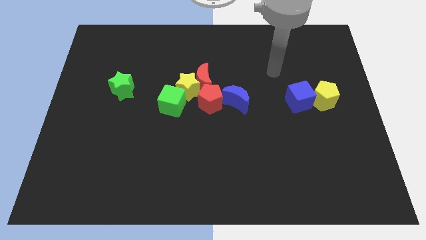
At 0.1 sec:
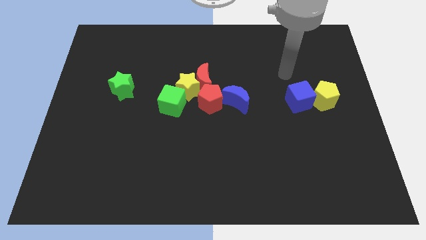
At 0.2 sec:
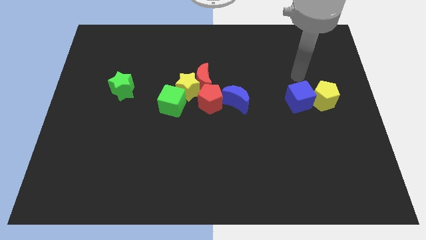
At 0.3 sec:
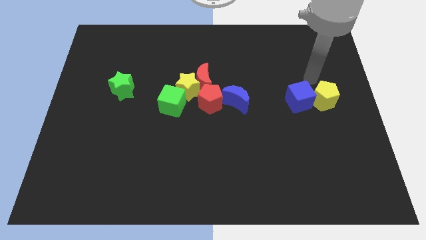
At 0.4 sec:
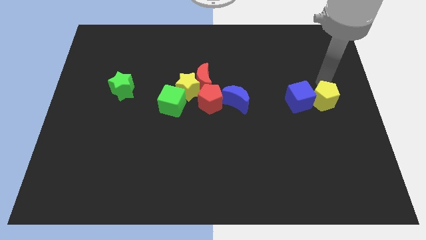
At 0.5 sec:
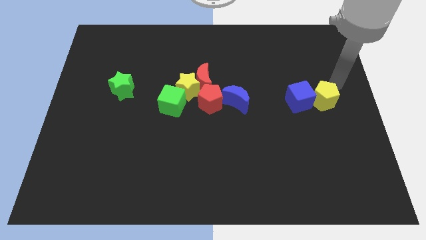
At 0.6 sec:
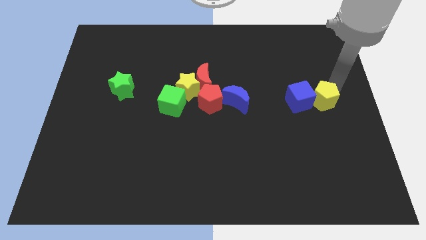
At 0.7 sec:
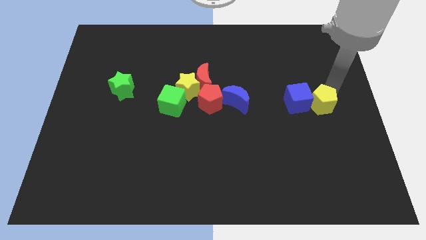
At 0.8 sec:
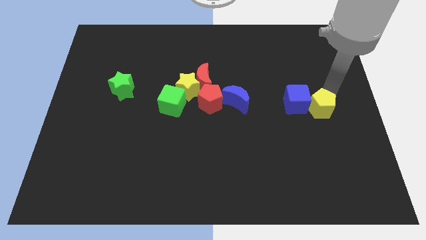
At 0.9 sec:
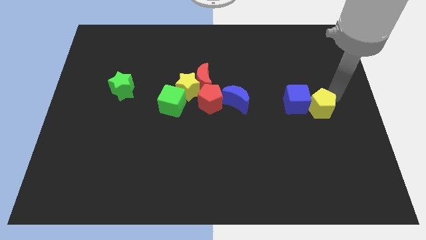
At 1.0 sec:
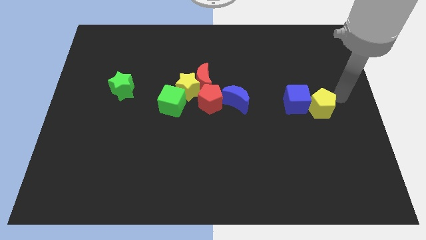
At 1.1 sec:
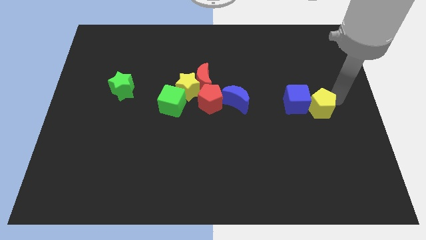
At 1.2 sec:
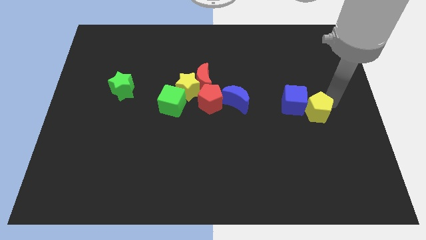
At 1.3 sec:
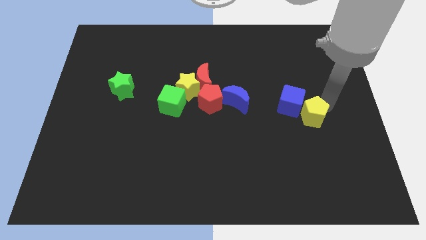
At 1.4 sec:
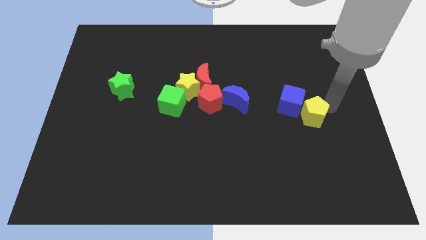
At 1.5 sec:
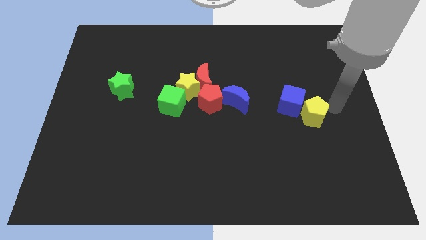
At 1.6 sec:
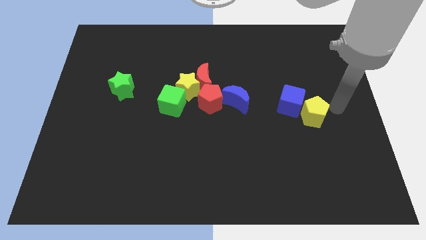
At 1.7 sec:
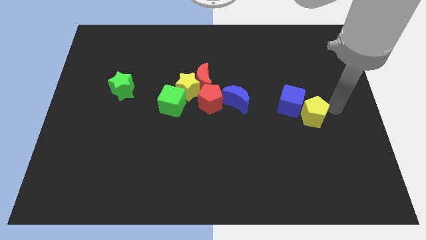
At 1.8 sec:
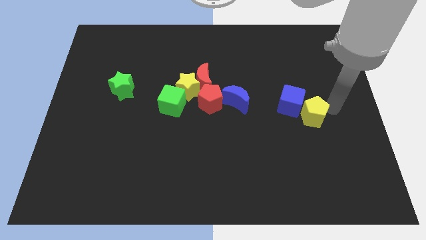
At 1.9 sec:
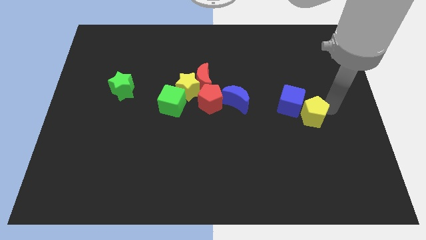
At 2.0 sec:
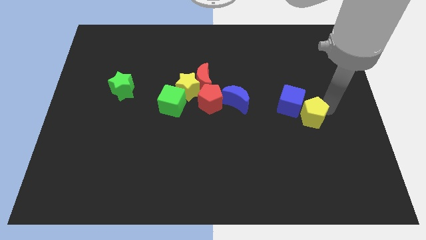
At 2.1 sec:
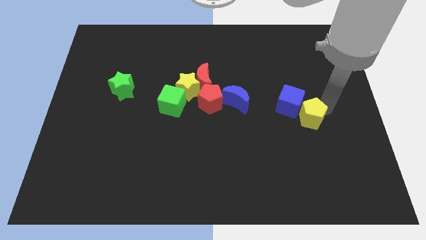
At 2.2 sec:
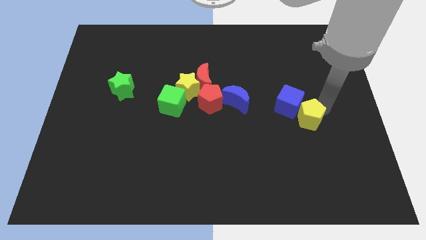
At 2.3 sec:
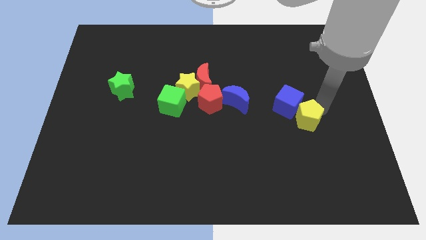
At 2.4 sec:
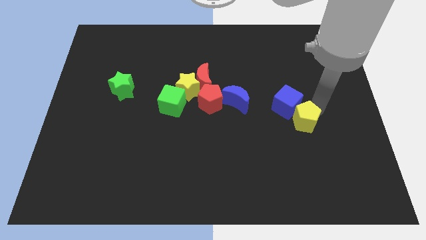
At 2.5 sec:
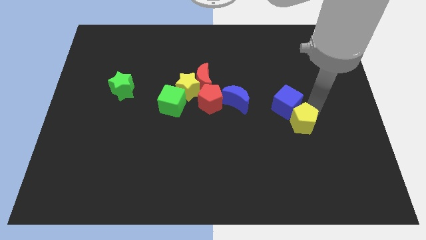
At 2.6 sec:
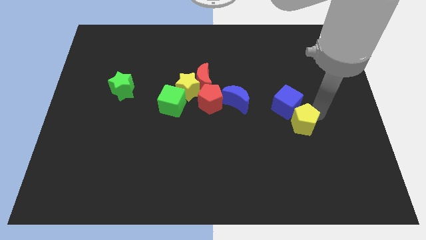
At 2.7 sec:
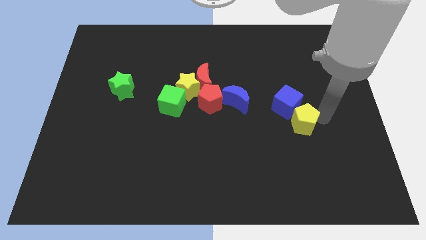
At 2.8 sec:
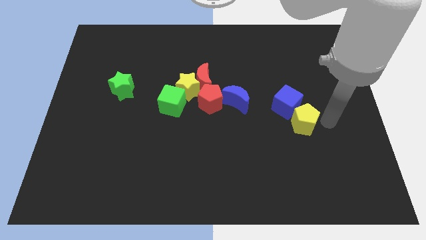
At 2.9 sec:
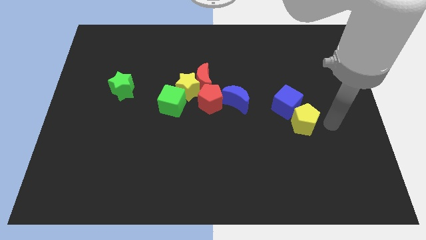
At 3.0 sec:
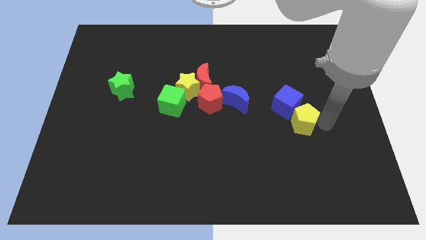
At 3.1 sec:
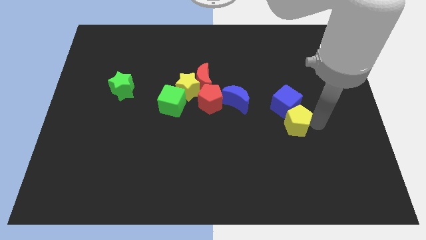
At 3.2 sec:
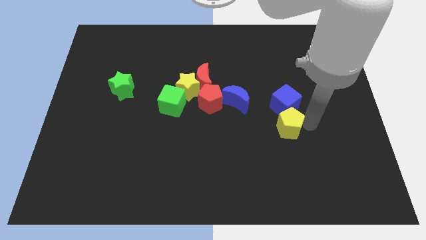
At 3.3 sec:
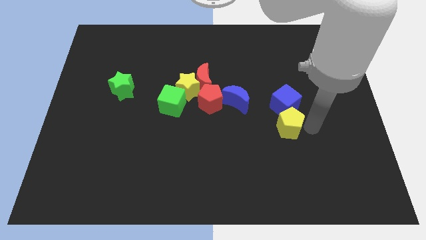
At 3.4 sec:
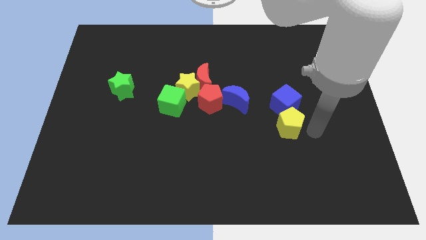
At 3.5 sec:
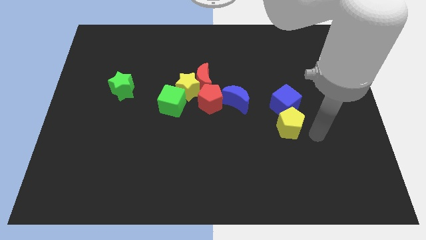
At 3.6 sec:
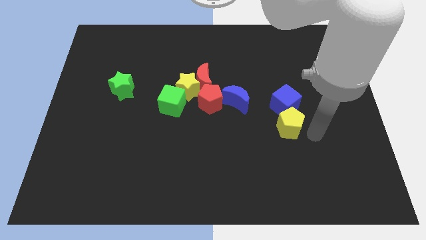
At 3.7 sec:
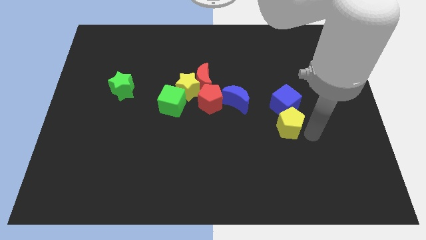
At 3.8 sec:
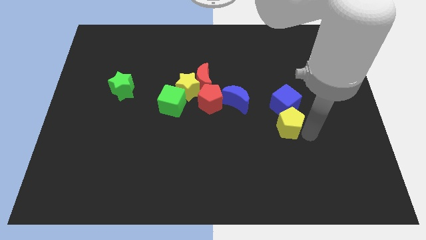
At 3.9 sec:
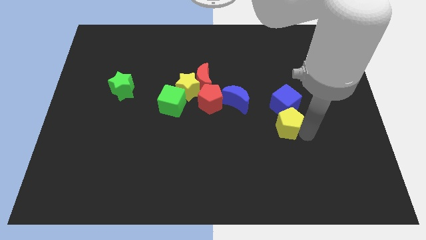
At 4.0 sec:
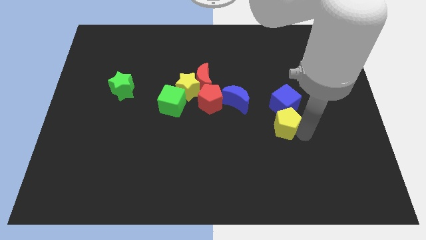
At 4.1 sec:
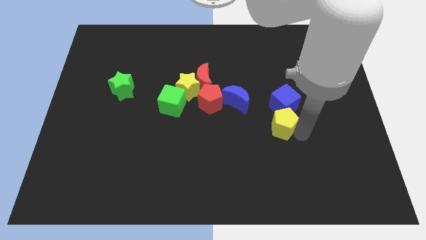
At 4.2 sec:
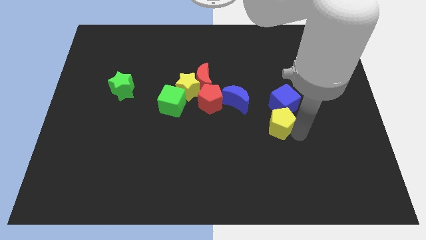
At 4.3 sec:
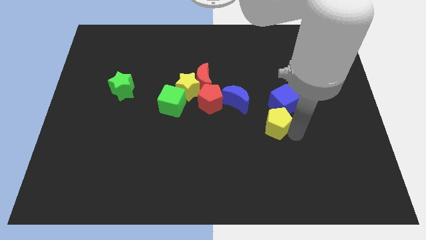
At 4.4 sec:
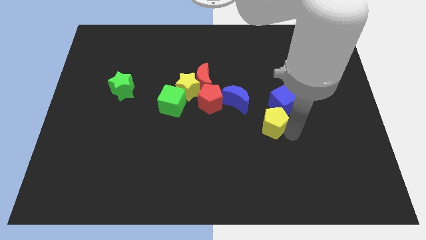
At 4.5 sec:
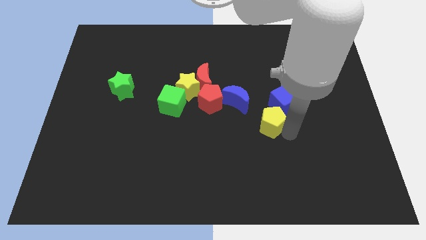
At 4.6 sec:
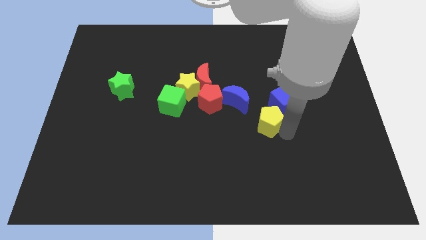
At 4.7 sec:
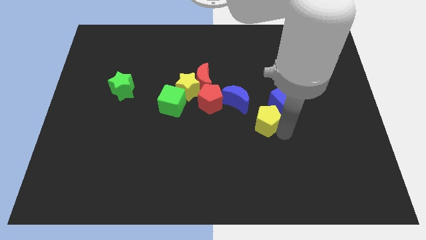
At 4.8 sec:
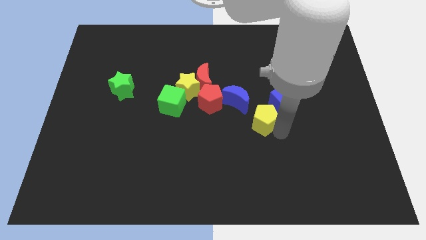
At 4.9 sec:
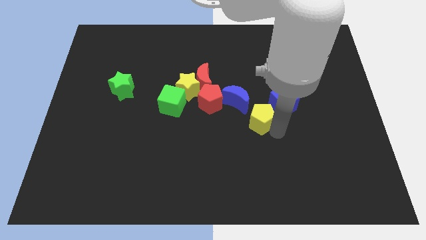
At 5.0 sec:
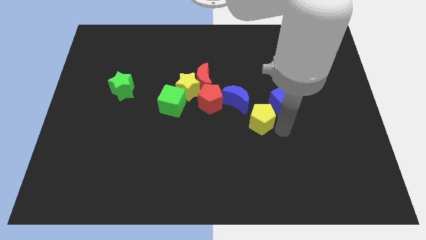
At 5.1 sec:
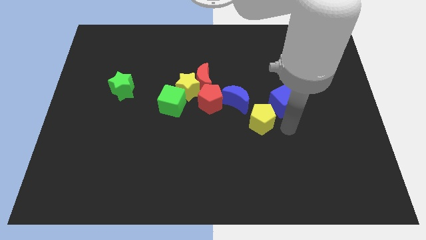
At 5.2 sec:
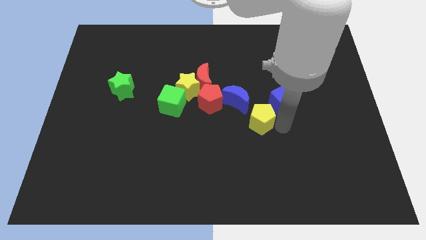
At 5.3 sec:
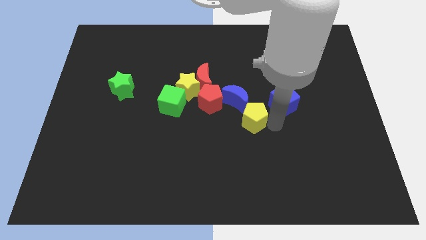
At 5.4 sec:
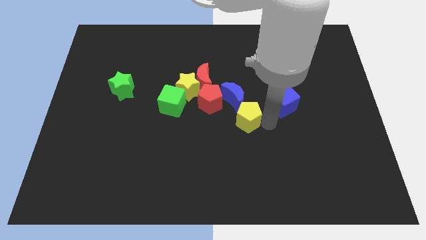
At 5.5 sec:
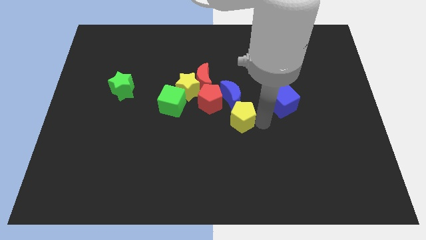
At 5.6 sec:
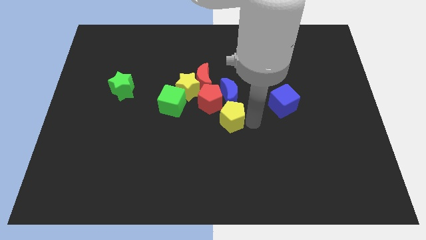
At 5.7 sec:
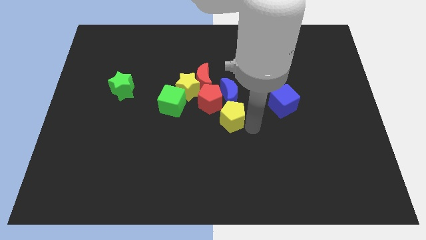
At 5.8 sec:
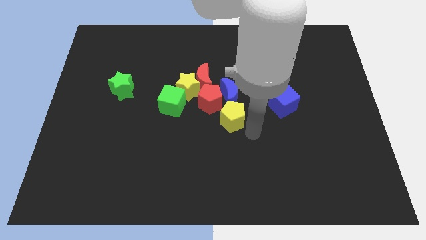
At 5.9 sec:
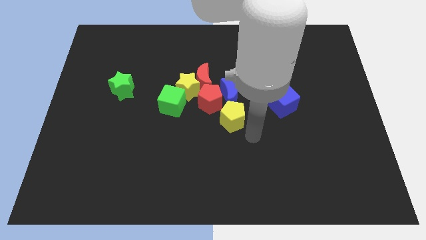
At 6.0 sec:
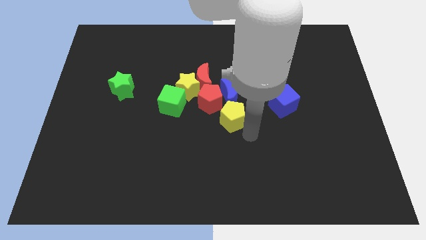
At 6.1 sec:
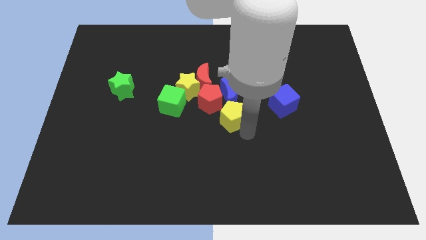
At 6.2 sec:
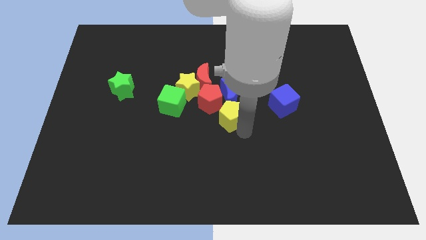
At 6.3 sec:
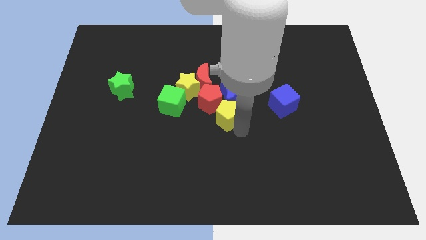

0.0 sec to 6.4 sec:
push the yellow pentagon towards the red pentagon

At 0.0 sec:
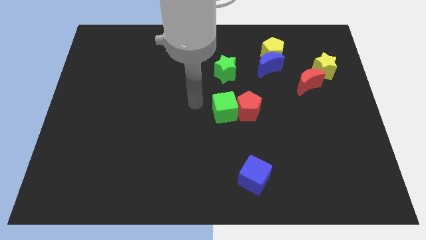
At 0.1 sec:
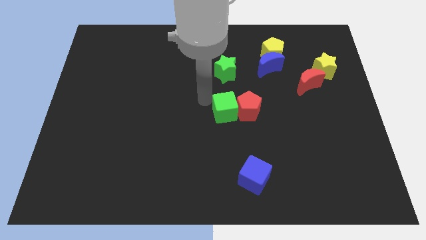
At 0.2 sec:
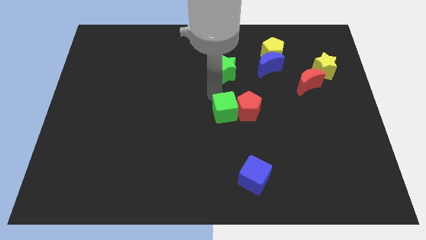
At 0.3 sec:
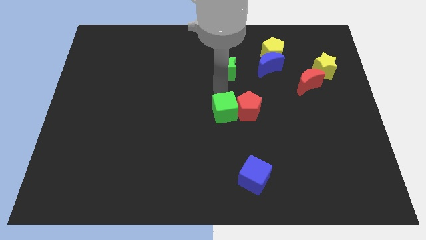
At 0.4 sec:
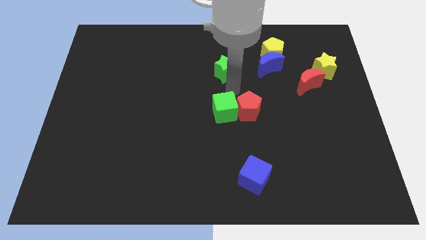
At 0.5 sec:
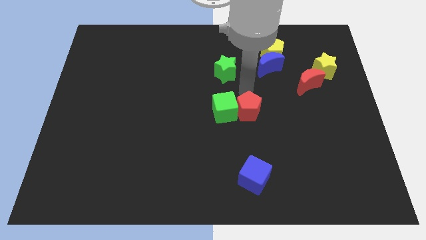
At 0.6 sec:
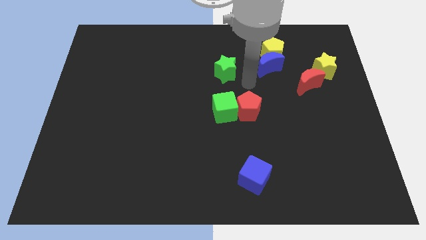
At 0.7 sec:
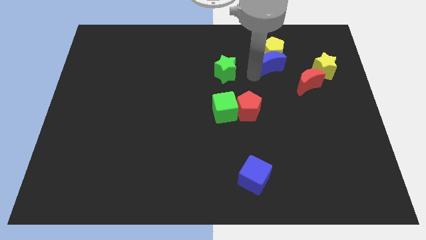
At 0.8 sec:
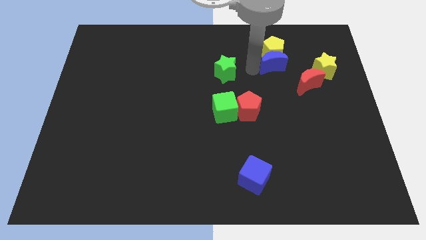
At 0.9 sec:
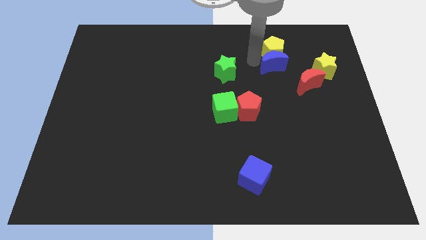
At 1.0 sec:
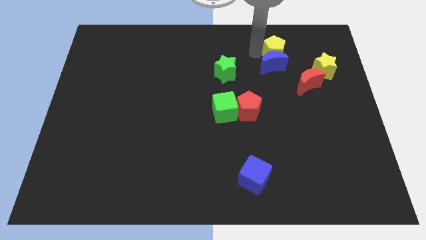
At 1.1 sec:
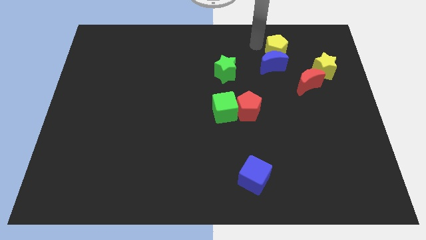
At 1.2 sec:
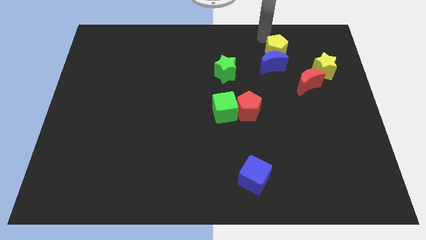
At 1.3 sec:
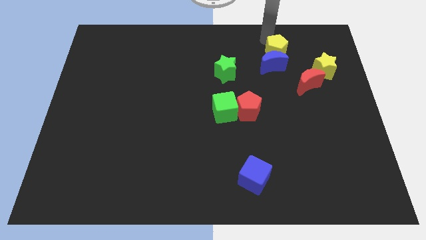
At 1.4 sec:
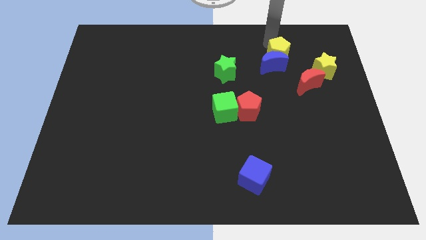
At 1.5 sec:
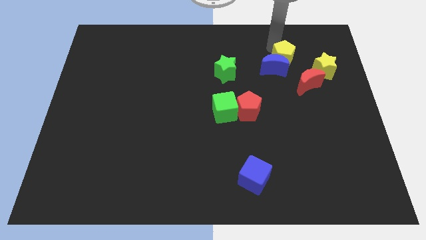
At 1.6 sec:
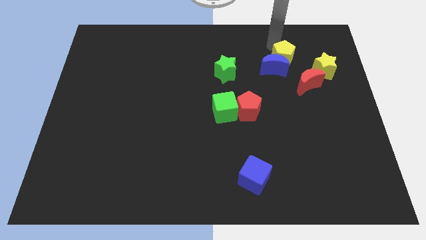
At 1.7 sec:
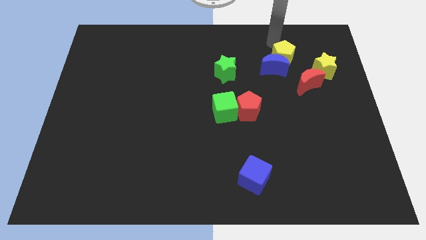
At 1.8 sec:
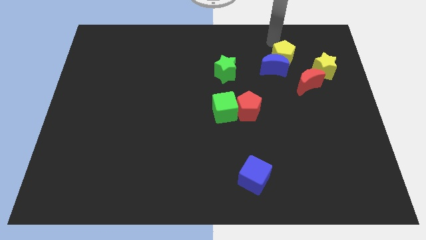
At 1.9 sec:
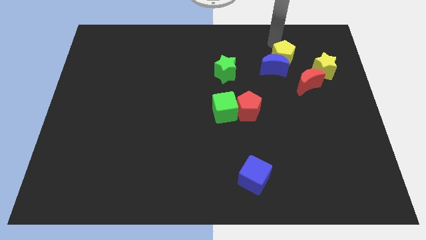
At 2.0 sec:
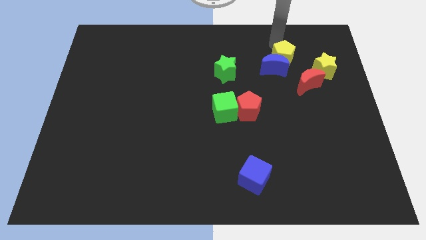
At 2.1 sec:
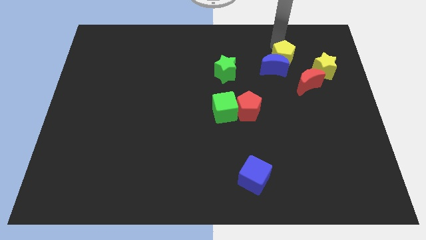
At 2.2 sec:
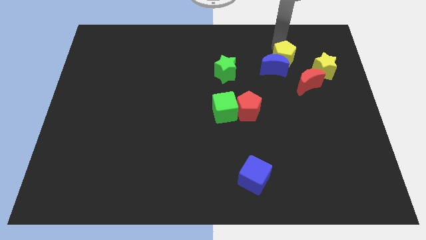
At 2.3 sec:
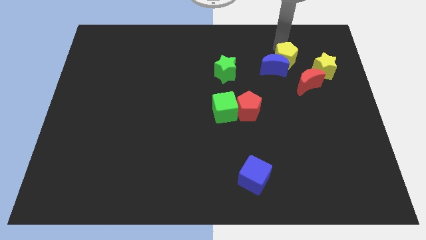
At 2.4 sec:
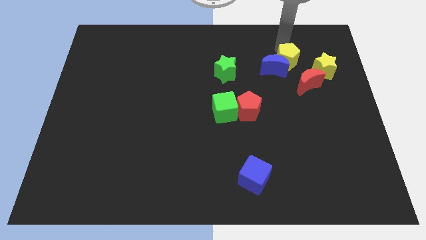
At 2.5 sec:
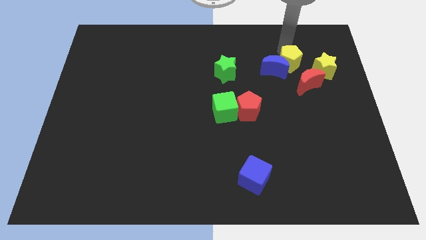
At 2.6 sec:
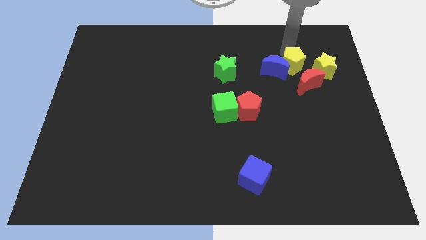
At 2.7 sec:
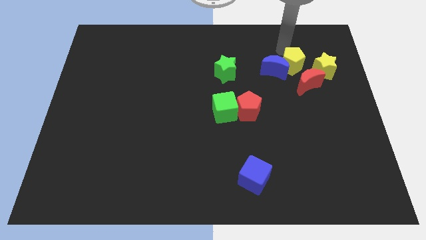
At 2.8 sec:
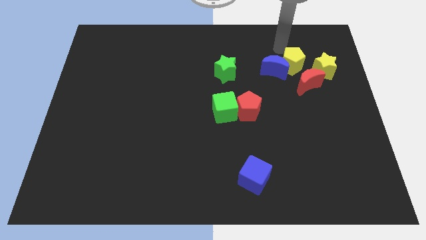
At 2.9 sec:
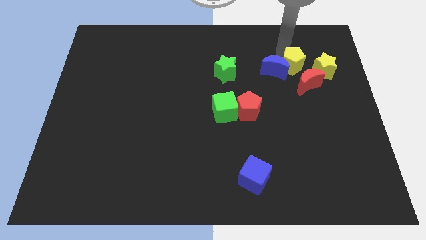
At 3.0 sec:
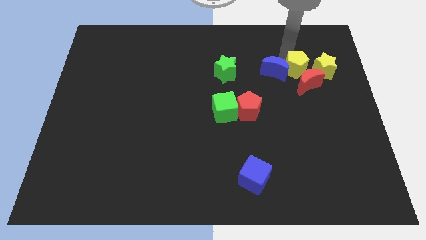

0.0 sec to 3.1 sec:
move the yellow pentagon to the red moon
